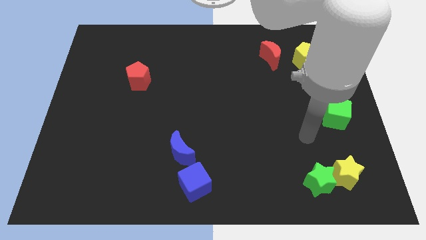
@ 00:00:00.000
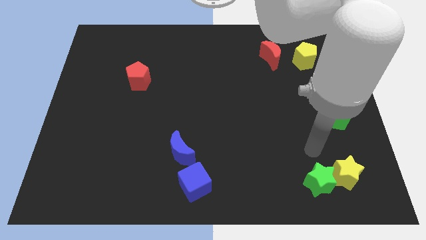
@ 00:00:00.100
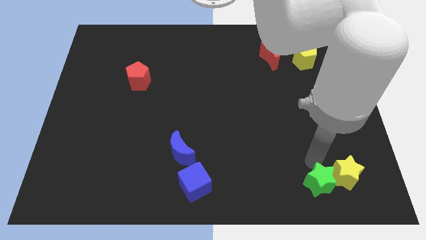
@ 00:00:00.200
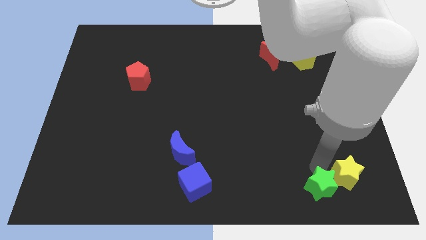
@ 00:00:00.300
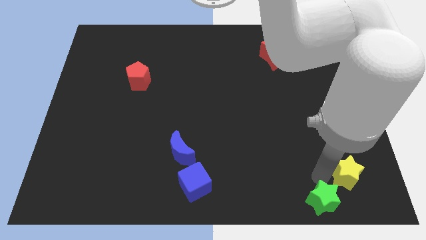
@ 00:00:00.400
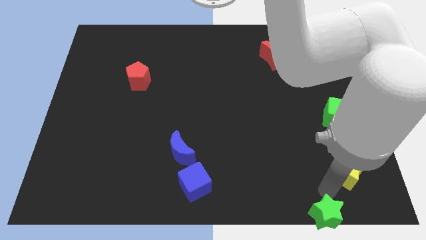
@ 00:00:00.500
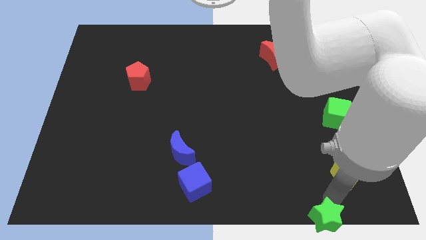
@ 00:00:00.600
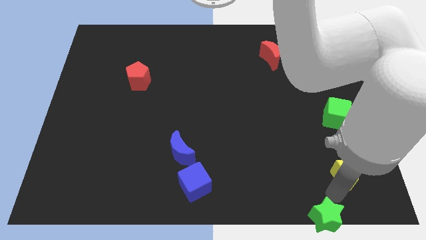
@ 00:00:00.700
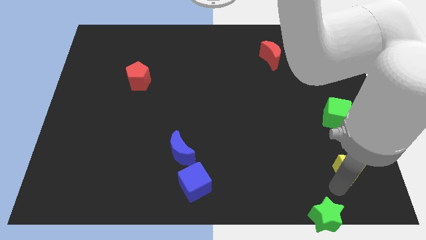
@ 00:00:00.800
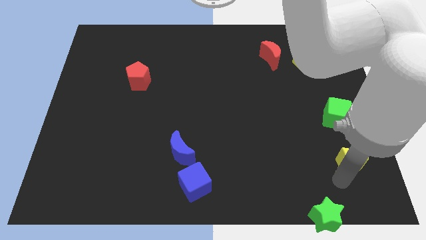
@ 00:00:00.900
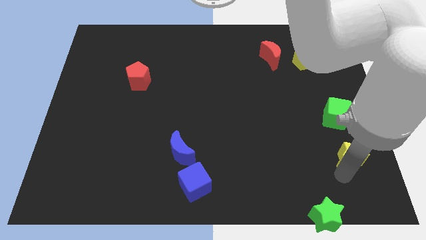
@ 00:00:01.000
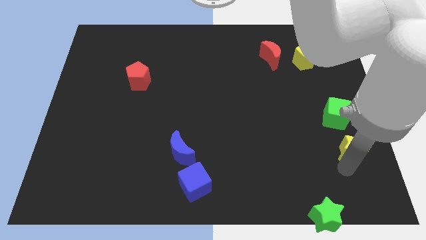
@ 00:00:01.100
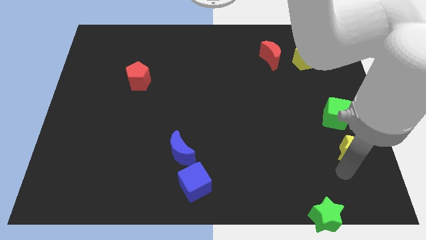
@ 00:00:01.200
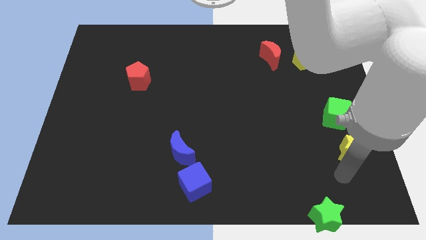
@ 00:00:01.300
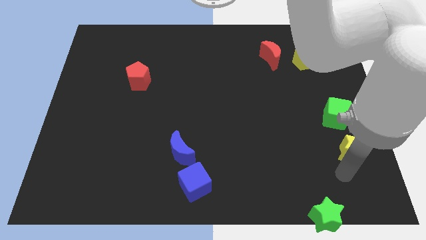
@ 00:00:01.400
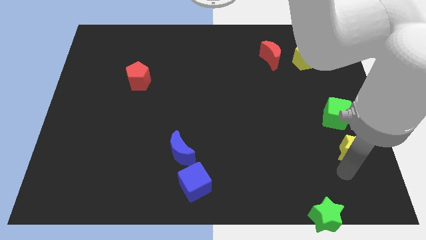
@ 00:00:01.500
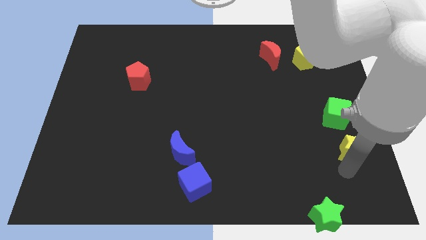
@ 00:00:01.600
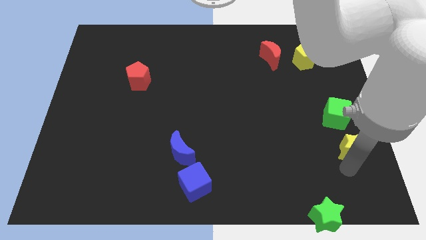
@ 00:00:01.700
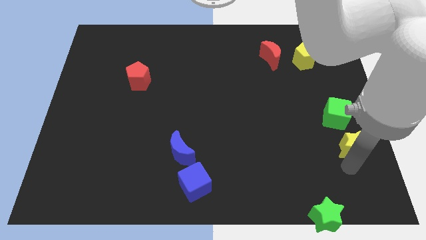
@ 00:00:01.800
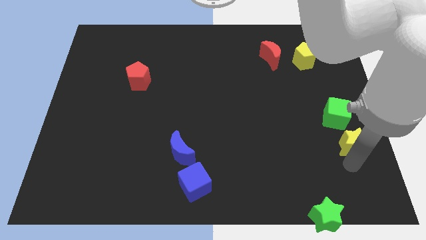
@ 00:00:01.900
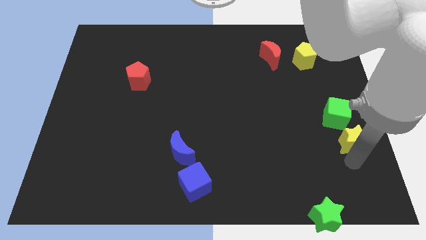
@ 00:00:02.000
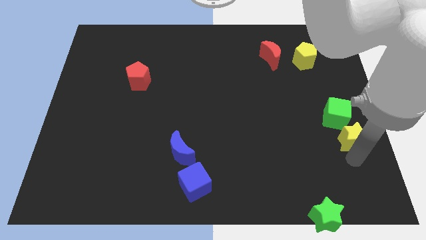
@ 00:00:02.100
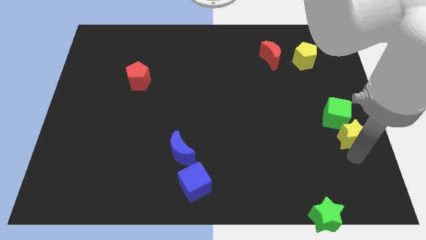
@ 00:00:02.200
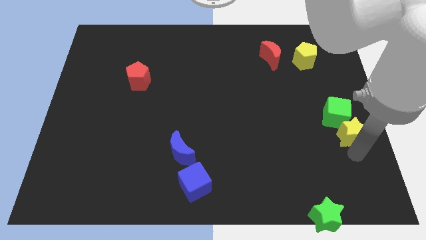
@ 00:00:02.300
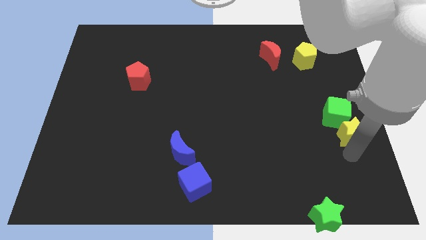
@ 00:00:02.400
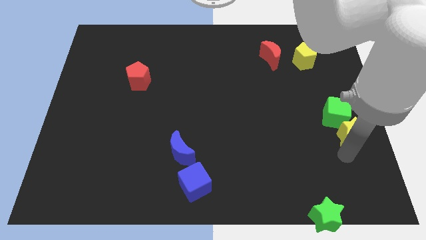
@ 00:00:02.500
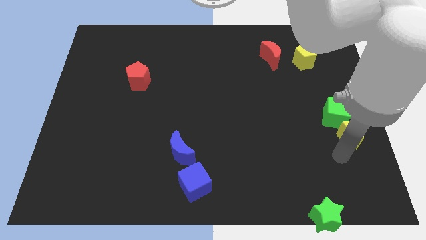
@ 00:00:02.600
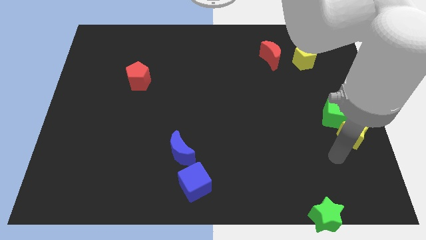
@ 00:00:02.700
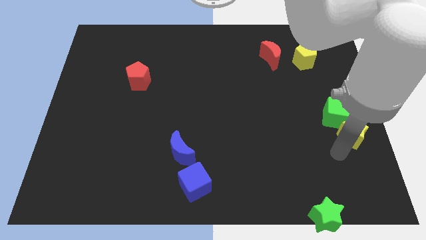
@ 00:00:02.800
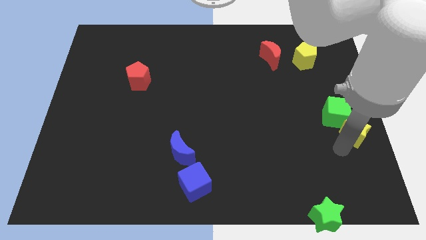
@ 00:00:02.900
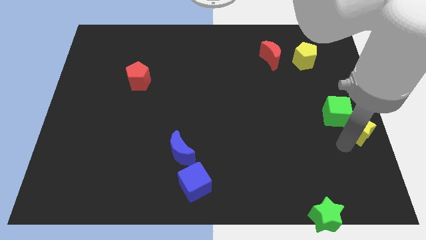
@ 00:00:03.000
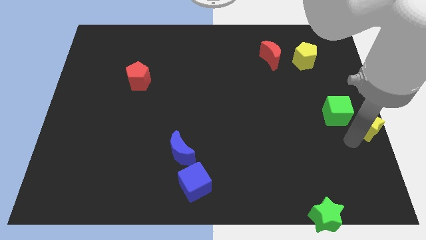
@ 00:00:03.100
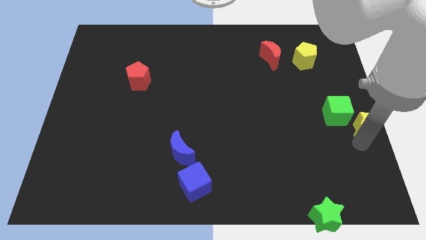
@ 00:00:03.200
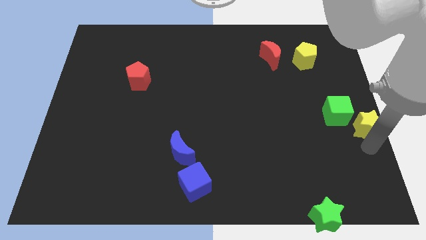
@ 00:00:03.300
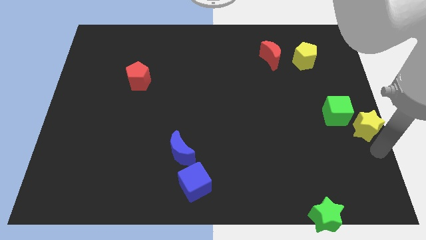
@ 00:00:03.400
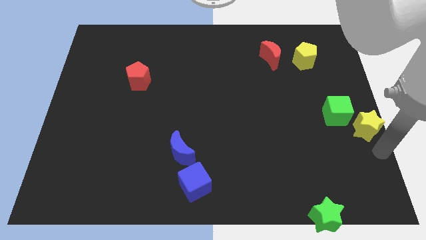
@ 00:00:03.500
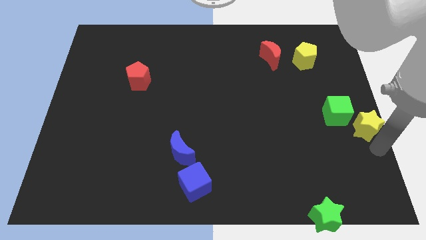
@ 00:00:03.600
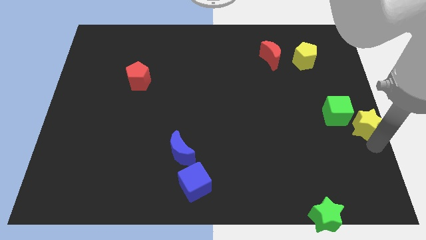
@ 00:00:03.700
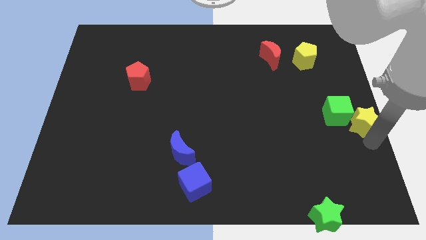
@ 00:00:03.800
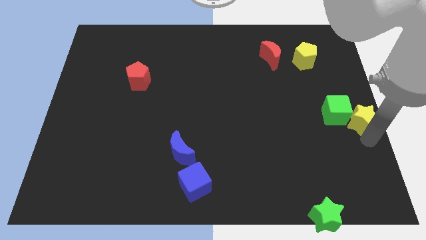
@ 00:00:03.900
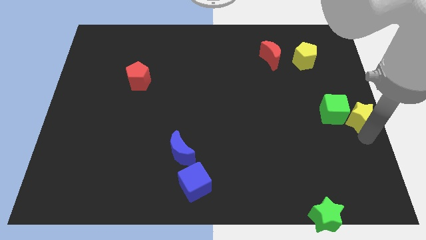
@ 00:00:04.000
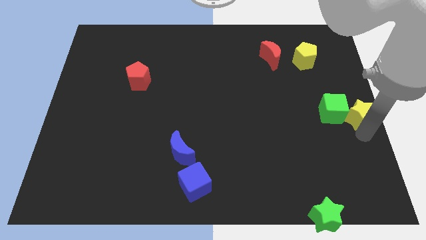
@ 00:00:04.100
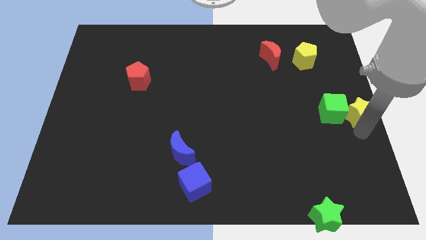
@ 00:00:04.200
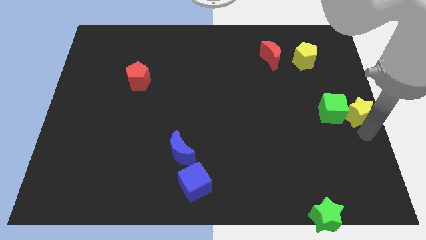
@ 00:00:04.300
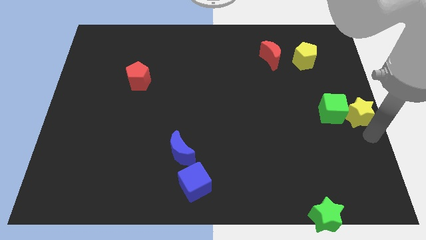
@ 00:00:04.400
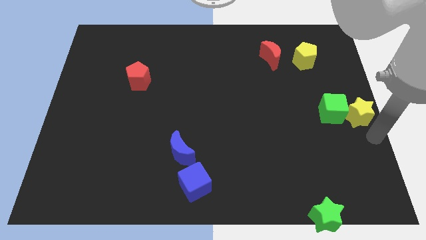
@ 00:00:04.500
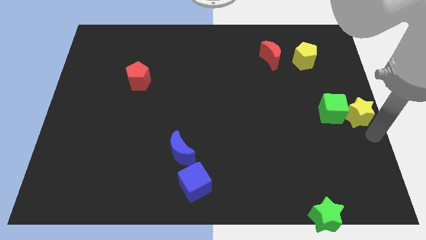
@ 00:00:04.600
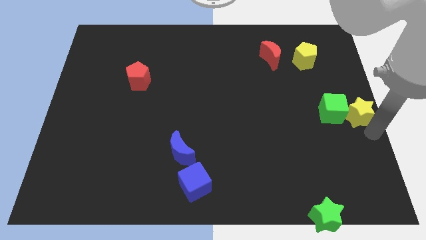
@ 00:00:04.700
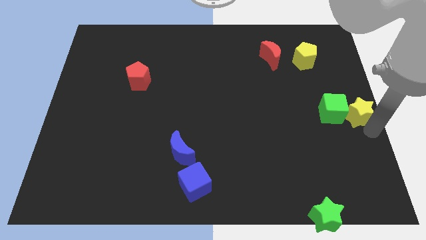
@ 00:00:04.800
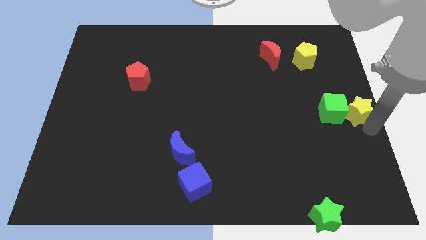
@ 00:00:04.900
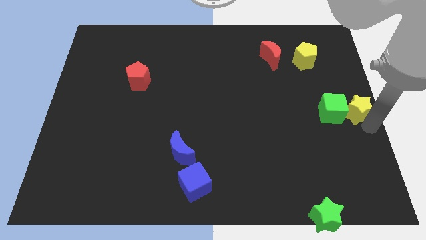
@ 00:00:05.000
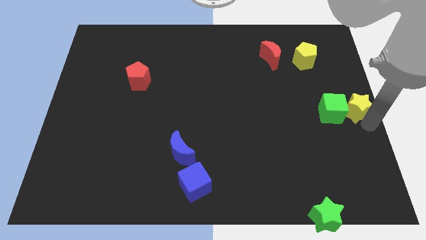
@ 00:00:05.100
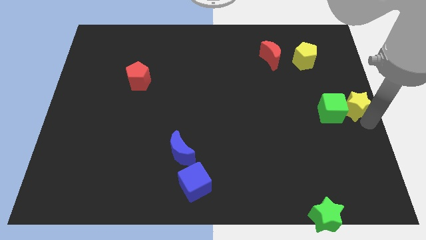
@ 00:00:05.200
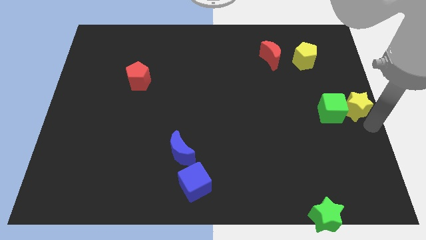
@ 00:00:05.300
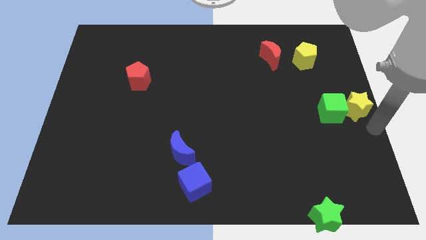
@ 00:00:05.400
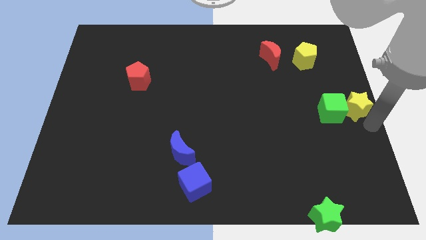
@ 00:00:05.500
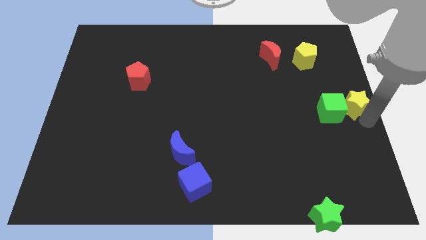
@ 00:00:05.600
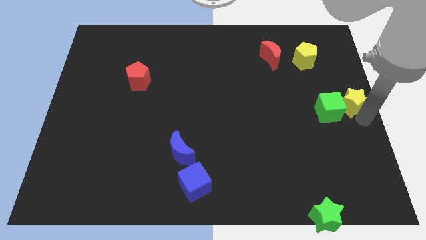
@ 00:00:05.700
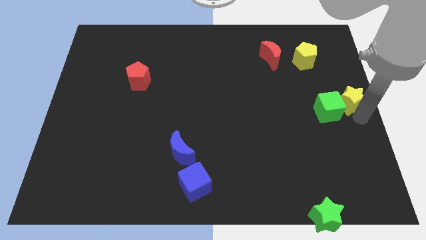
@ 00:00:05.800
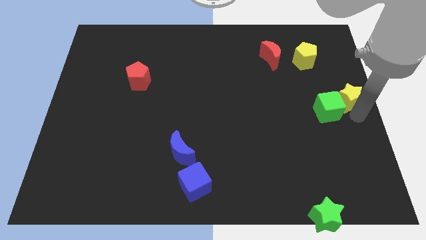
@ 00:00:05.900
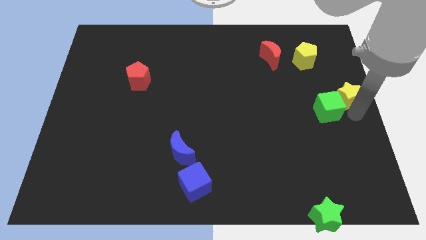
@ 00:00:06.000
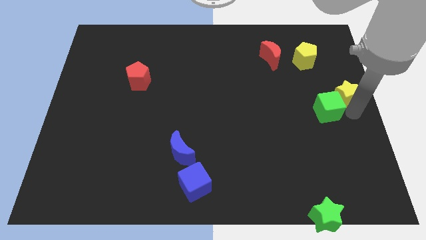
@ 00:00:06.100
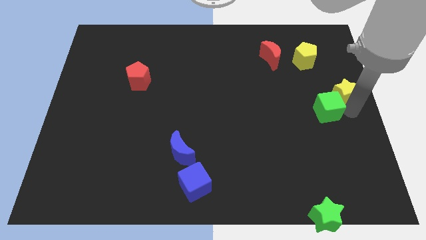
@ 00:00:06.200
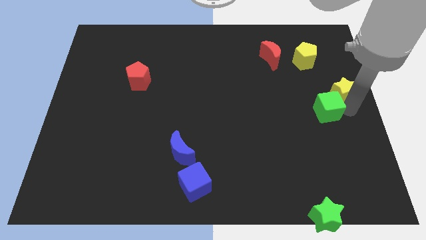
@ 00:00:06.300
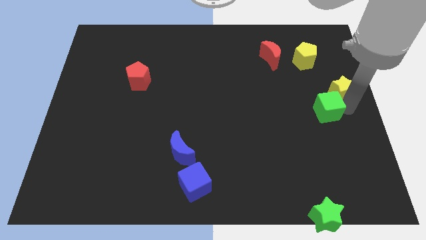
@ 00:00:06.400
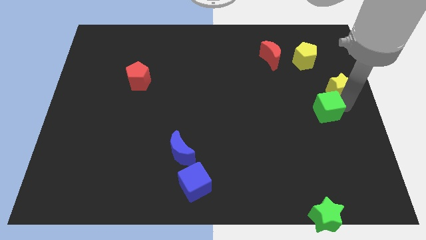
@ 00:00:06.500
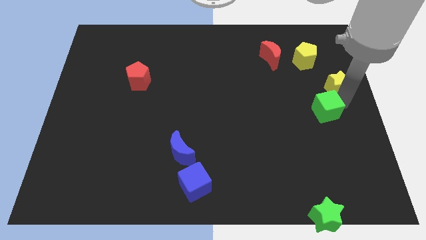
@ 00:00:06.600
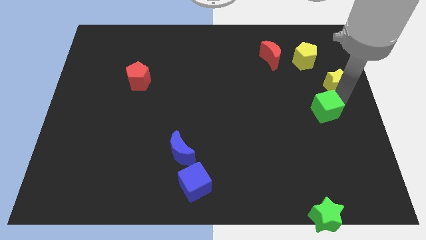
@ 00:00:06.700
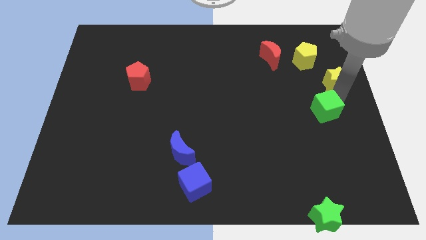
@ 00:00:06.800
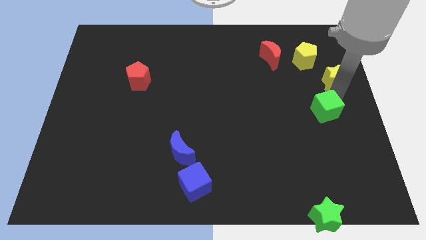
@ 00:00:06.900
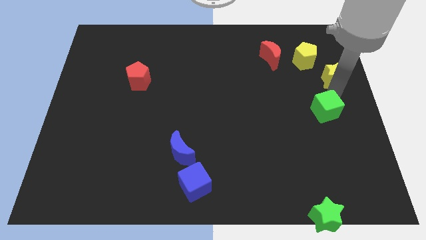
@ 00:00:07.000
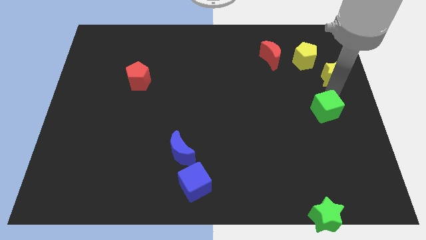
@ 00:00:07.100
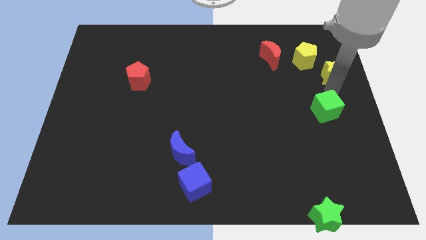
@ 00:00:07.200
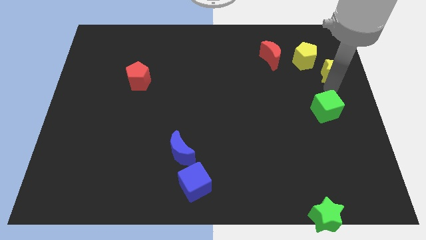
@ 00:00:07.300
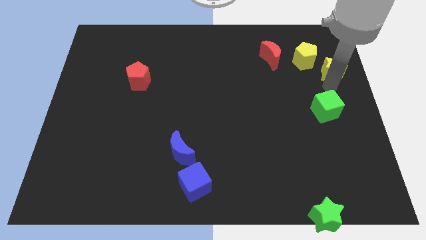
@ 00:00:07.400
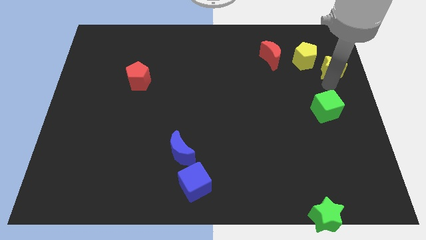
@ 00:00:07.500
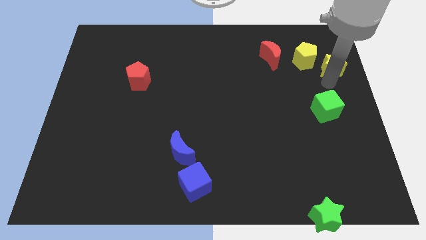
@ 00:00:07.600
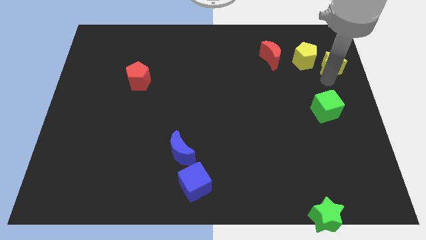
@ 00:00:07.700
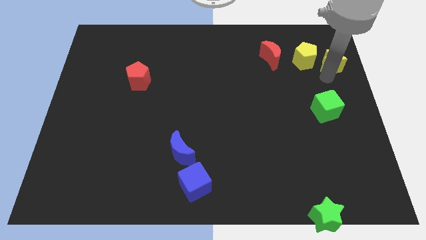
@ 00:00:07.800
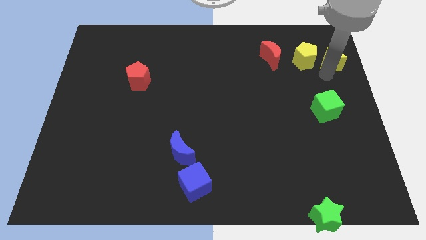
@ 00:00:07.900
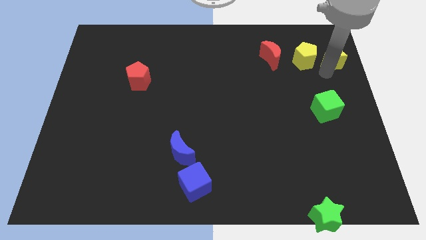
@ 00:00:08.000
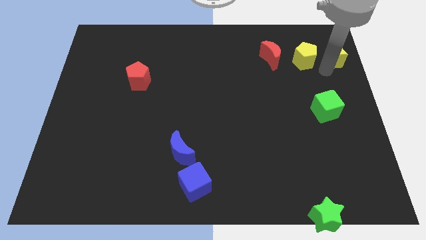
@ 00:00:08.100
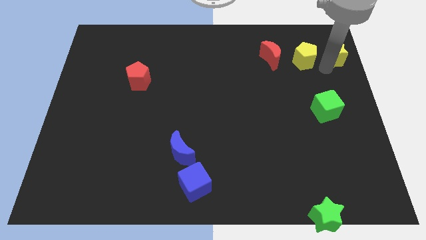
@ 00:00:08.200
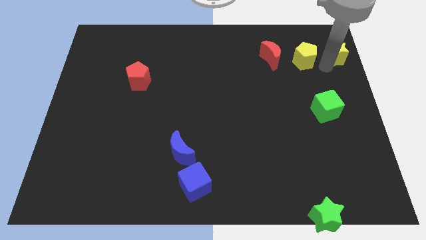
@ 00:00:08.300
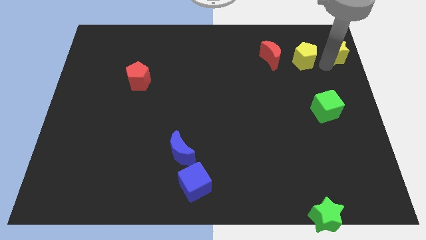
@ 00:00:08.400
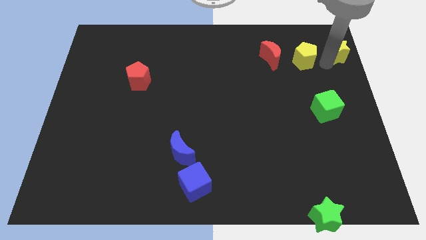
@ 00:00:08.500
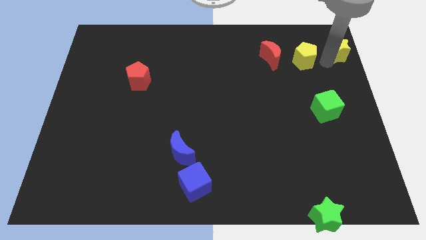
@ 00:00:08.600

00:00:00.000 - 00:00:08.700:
slide the yellow star to the upper right corner
